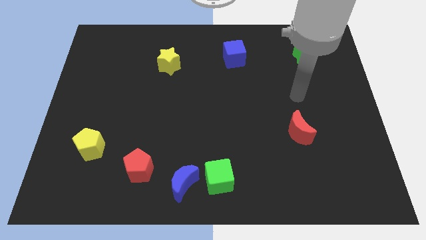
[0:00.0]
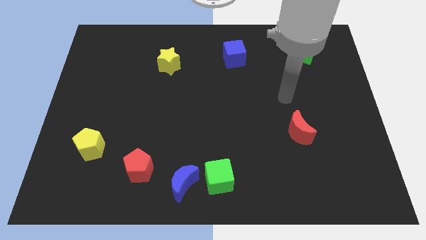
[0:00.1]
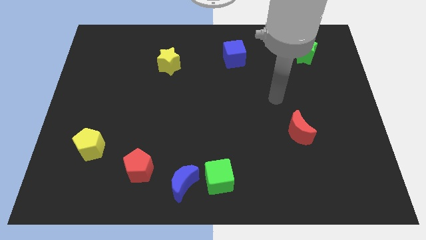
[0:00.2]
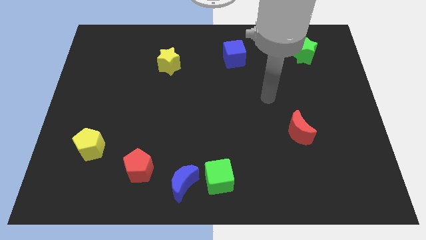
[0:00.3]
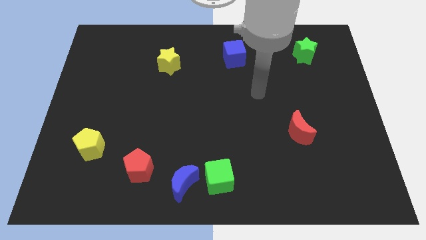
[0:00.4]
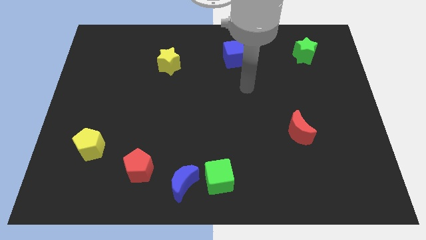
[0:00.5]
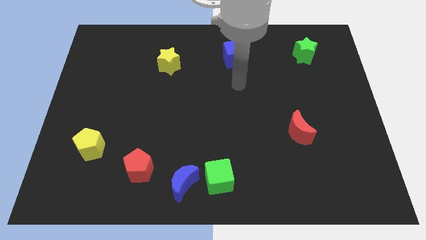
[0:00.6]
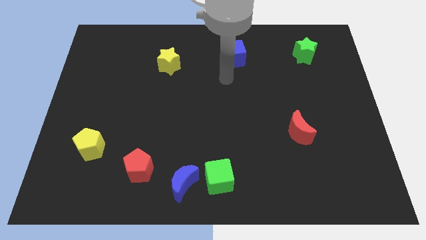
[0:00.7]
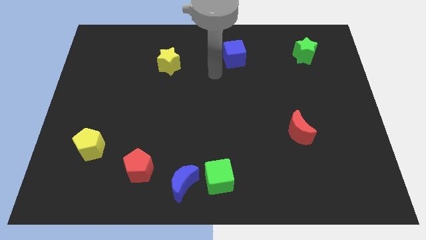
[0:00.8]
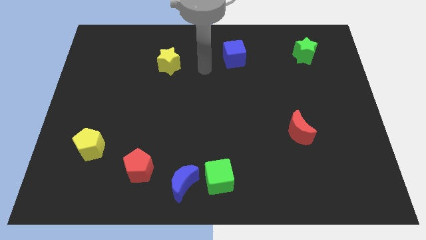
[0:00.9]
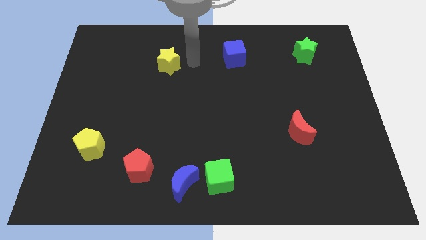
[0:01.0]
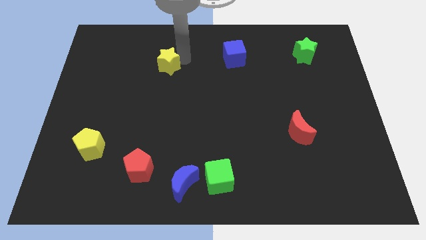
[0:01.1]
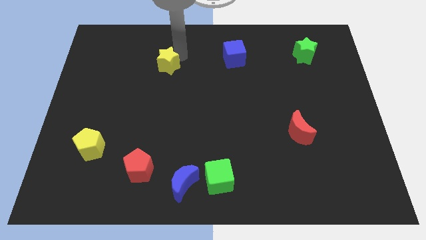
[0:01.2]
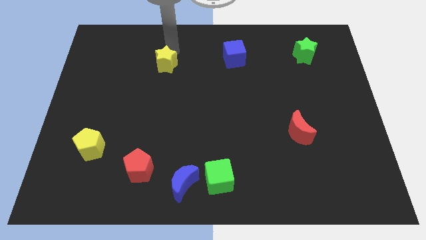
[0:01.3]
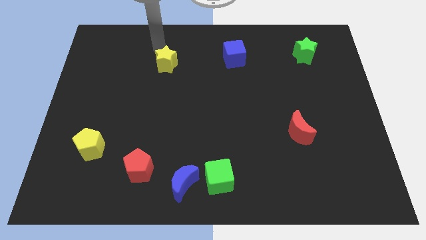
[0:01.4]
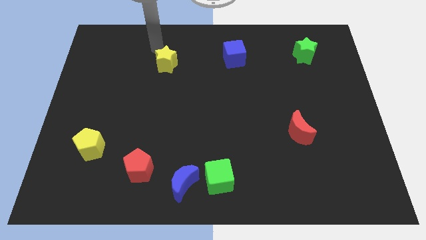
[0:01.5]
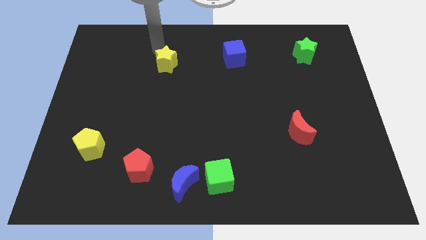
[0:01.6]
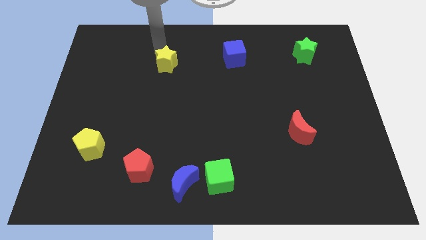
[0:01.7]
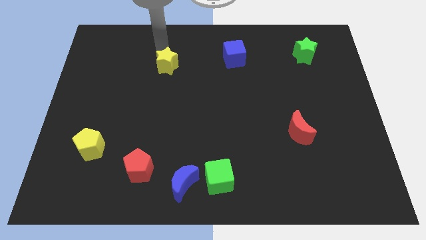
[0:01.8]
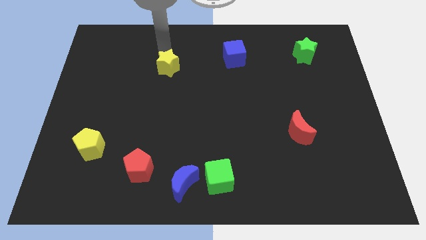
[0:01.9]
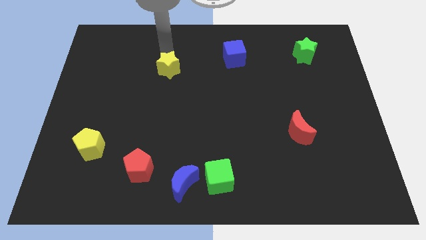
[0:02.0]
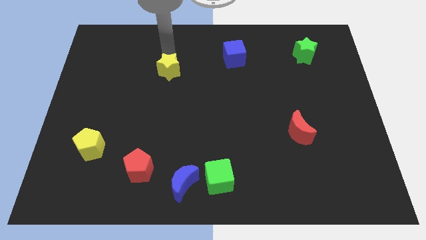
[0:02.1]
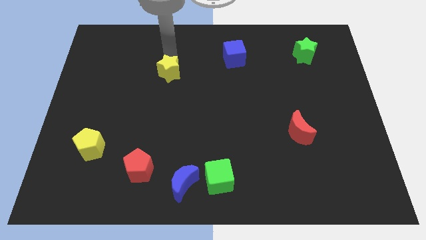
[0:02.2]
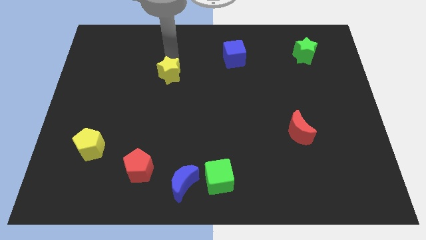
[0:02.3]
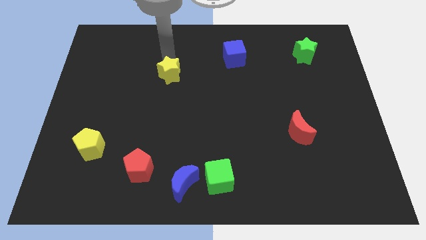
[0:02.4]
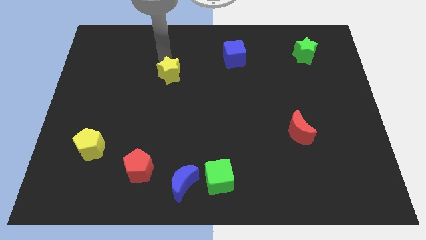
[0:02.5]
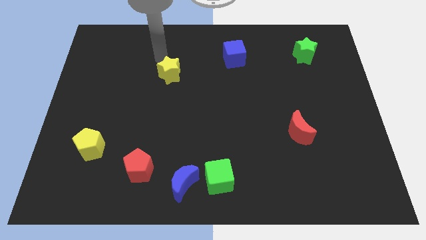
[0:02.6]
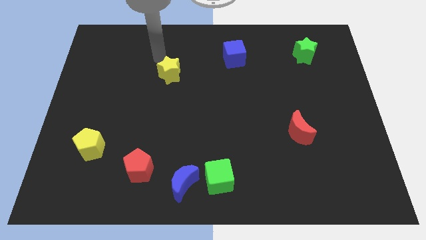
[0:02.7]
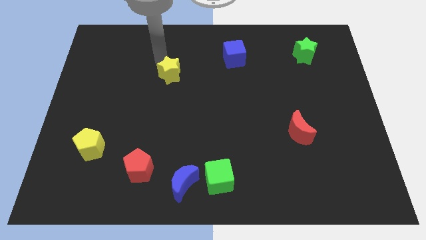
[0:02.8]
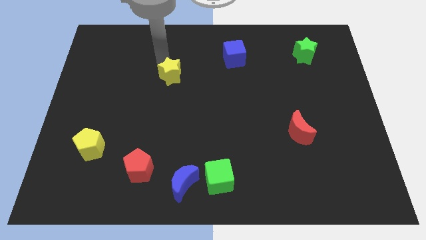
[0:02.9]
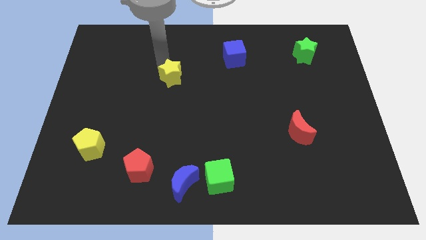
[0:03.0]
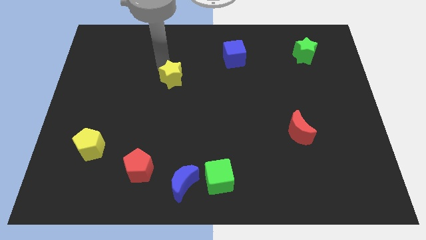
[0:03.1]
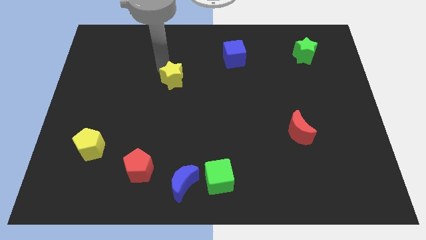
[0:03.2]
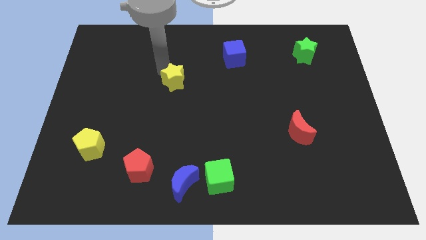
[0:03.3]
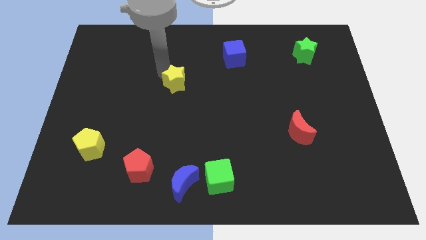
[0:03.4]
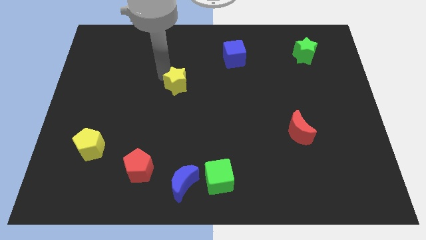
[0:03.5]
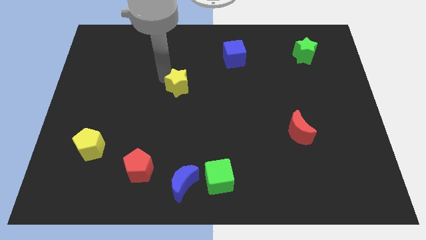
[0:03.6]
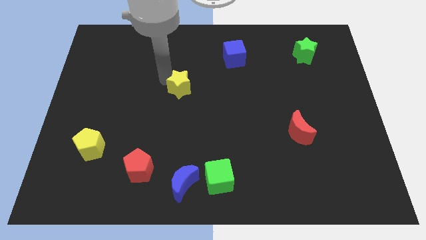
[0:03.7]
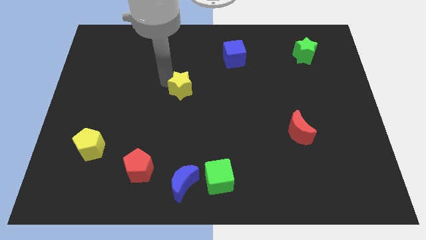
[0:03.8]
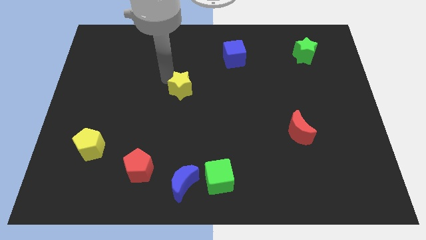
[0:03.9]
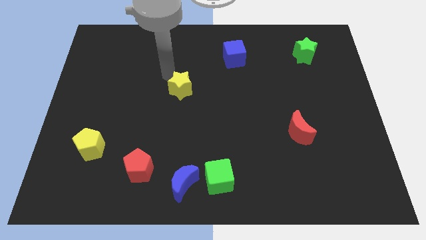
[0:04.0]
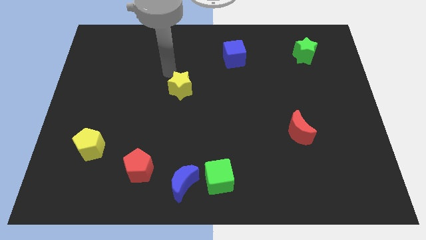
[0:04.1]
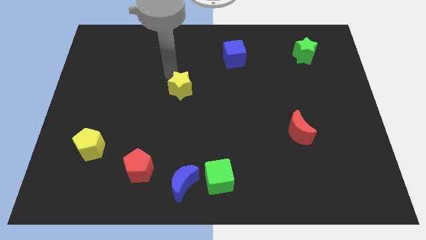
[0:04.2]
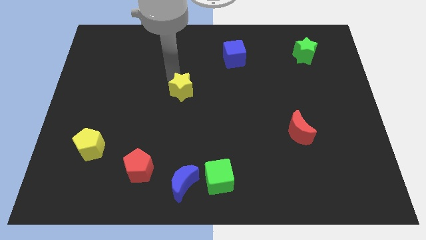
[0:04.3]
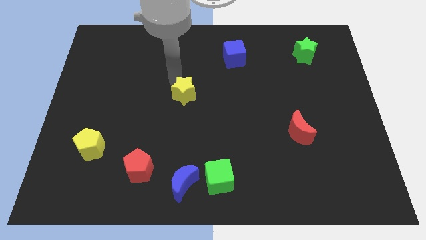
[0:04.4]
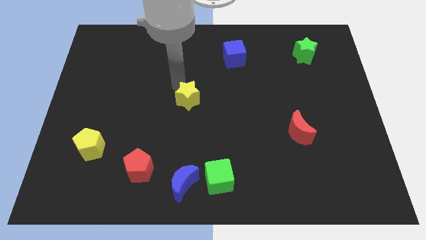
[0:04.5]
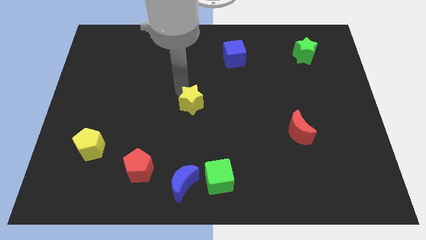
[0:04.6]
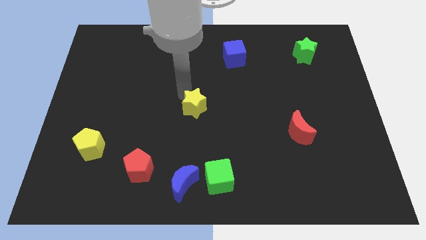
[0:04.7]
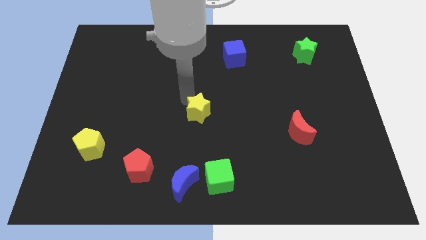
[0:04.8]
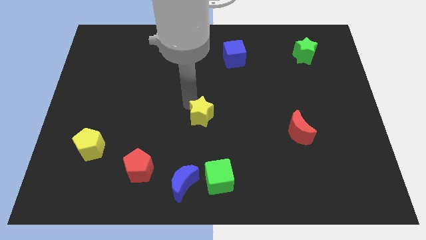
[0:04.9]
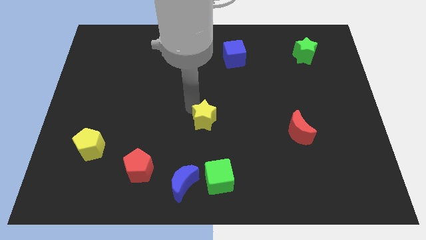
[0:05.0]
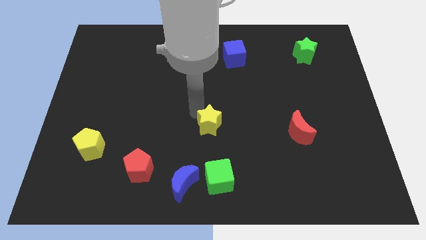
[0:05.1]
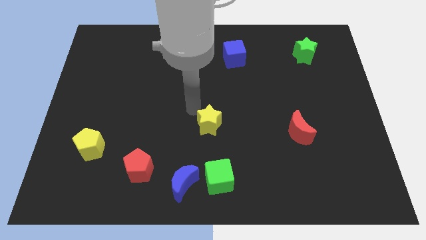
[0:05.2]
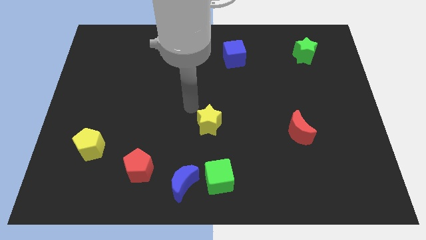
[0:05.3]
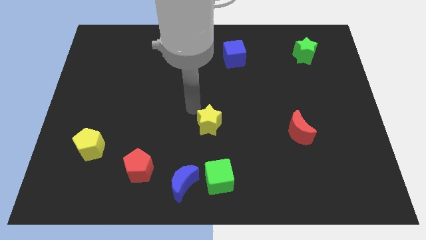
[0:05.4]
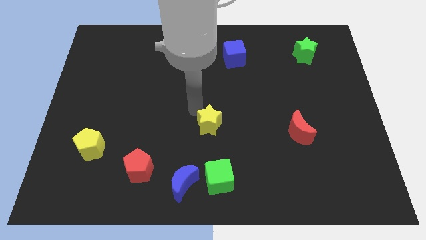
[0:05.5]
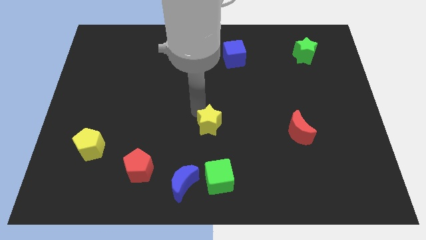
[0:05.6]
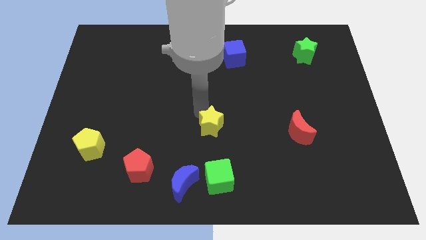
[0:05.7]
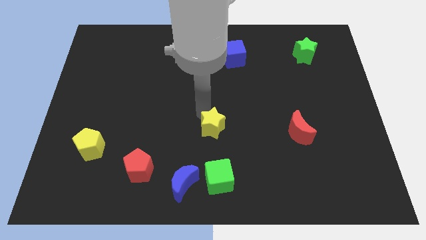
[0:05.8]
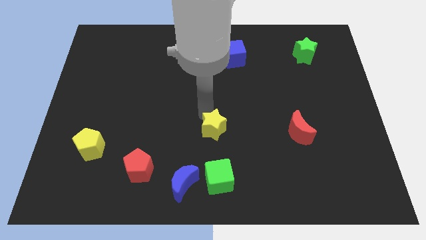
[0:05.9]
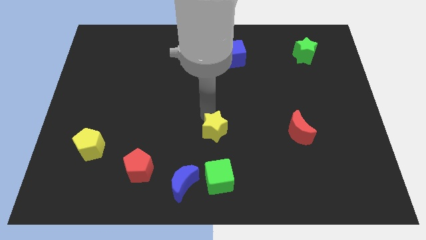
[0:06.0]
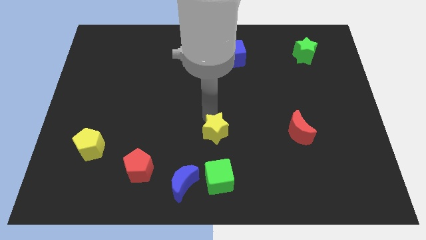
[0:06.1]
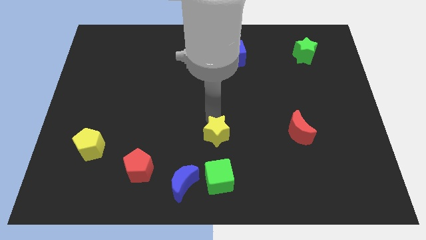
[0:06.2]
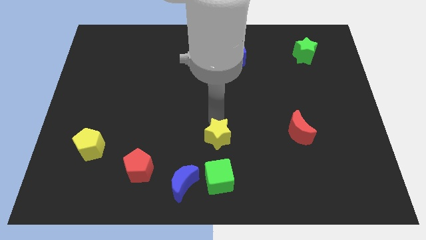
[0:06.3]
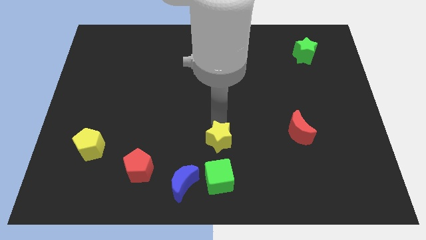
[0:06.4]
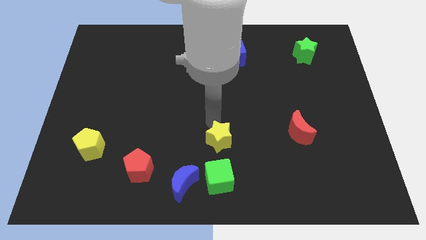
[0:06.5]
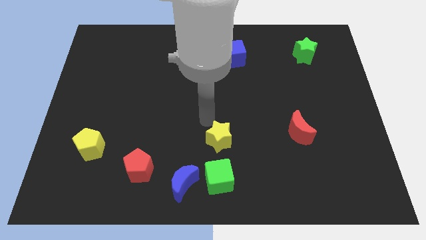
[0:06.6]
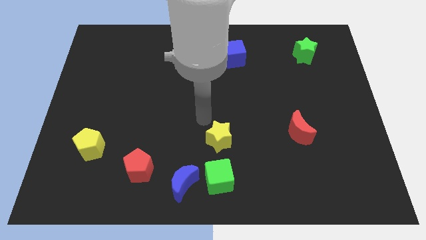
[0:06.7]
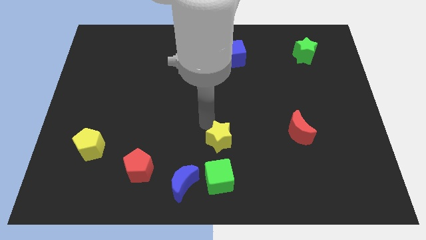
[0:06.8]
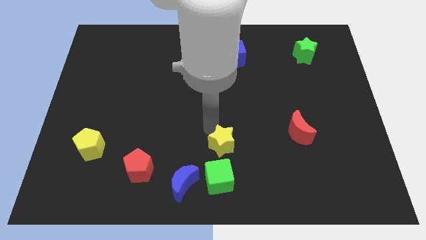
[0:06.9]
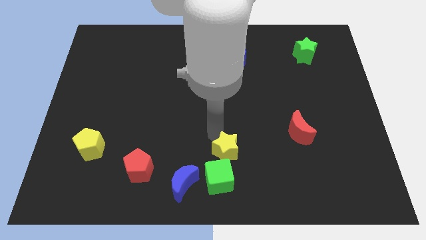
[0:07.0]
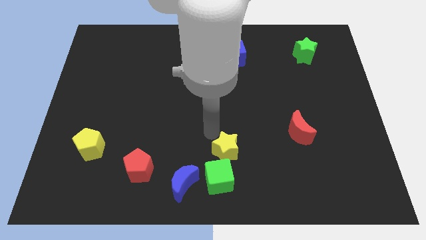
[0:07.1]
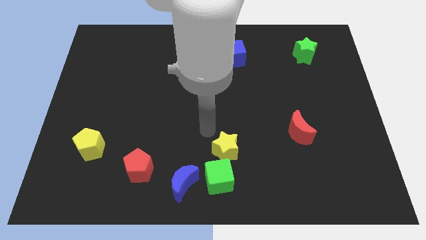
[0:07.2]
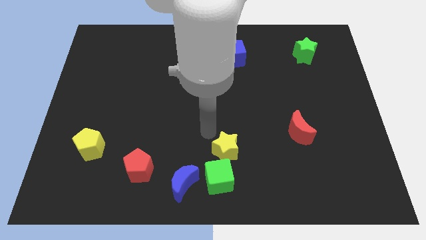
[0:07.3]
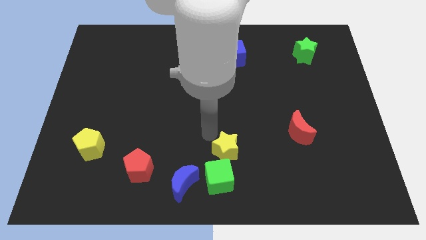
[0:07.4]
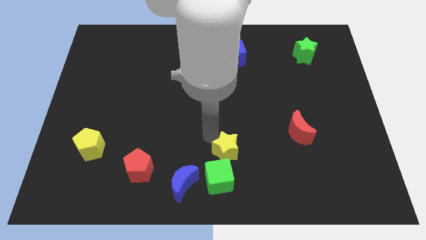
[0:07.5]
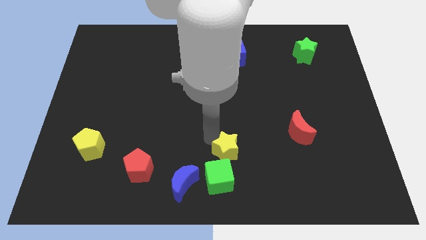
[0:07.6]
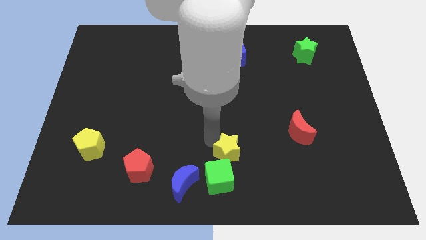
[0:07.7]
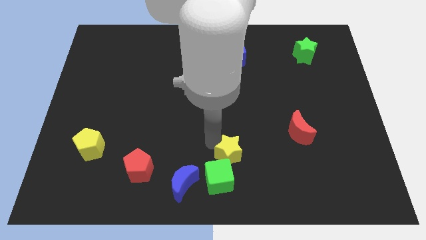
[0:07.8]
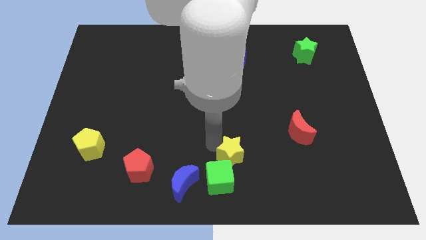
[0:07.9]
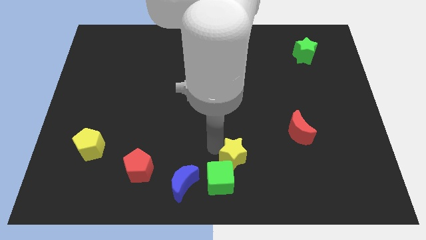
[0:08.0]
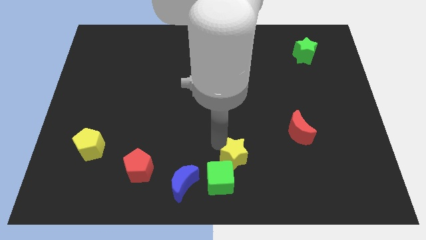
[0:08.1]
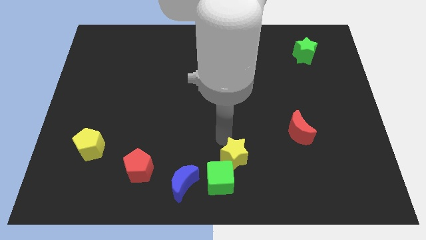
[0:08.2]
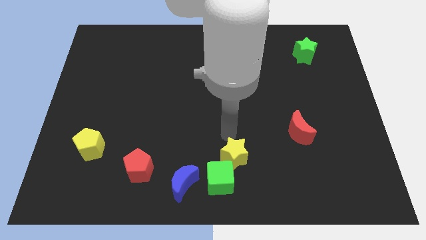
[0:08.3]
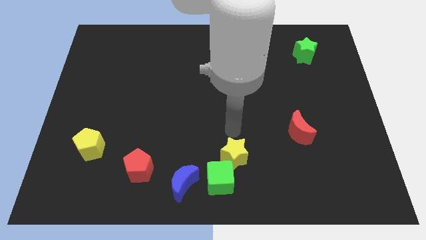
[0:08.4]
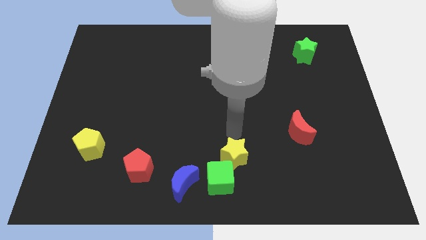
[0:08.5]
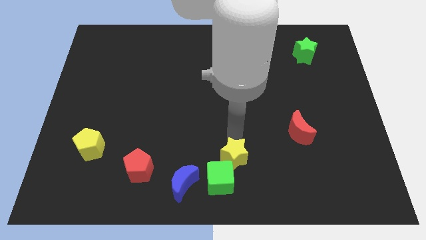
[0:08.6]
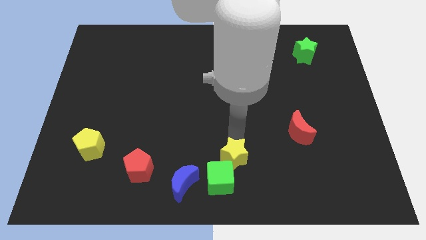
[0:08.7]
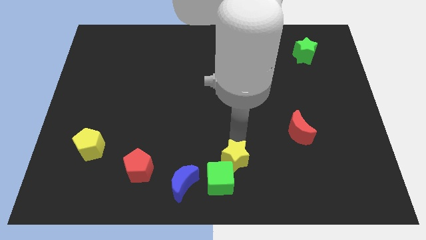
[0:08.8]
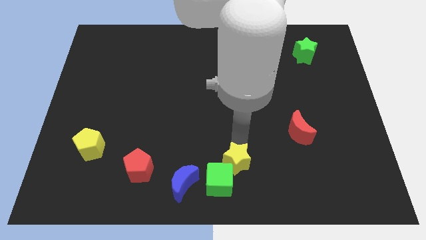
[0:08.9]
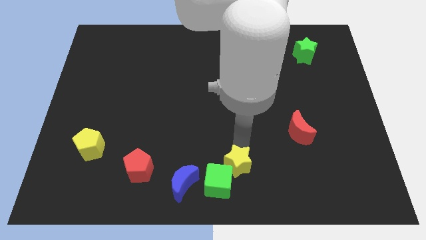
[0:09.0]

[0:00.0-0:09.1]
push the yellow star to the right side of the blue moon
